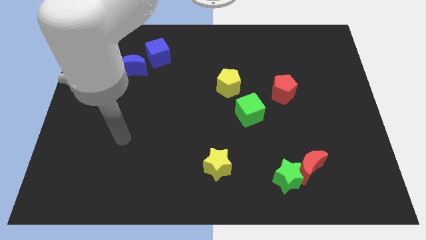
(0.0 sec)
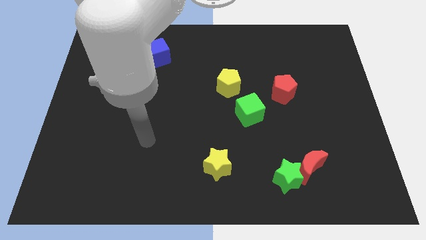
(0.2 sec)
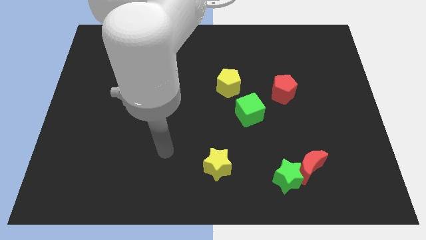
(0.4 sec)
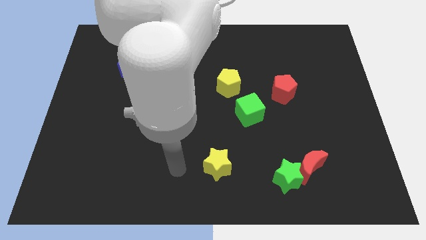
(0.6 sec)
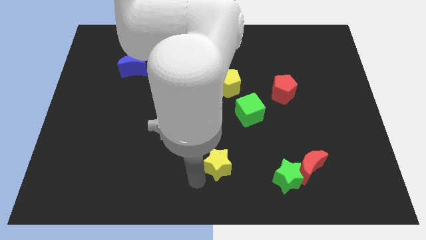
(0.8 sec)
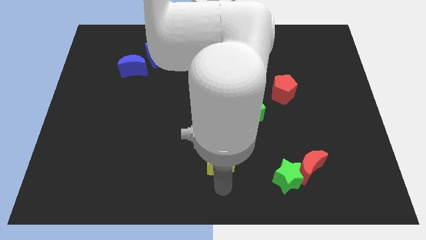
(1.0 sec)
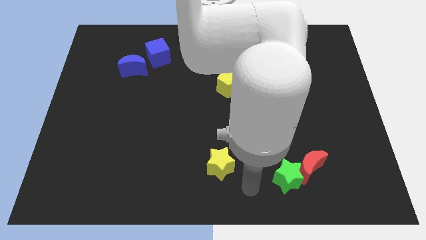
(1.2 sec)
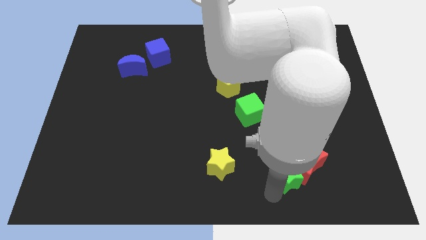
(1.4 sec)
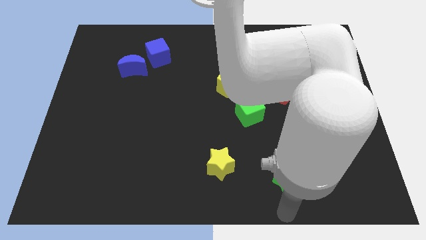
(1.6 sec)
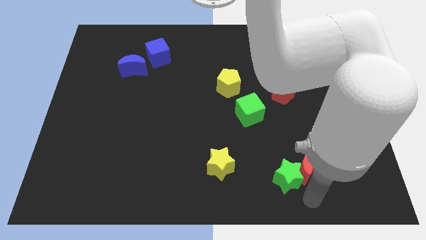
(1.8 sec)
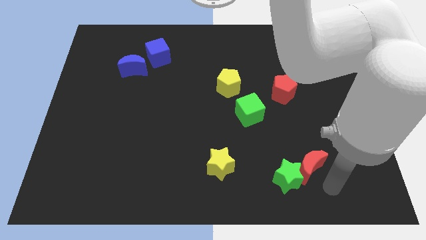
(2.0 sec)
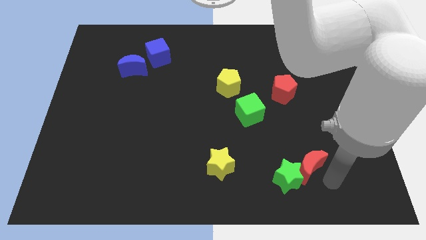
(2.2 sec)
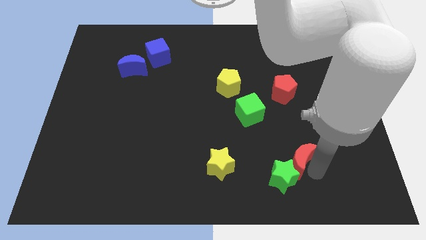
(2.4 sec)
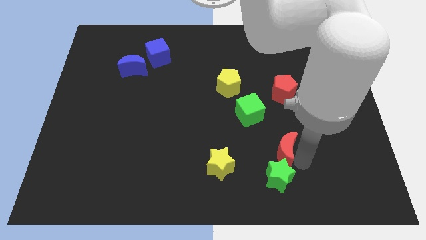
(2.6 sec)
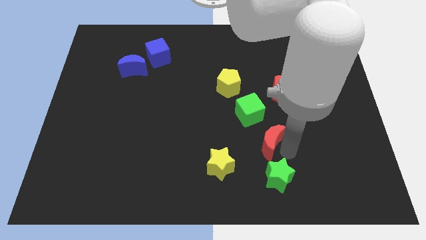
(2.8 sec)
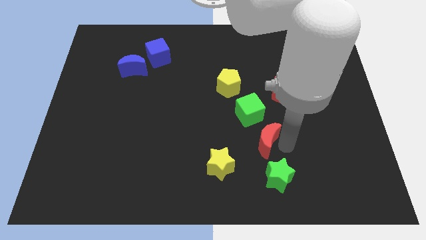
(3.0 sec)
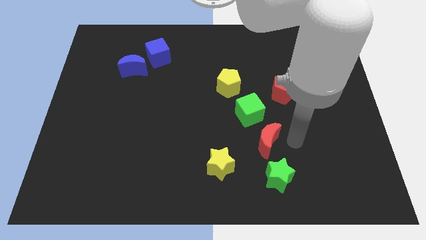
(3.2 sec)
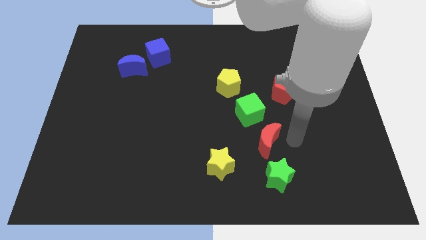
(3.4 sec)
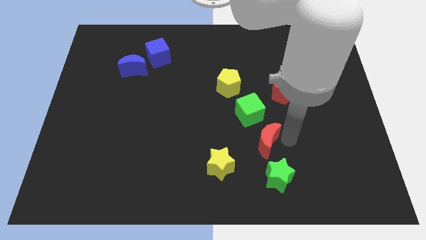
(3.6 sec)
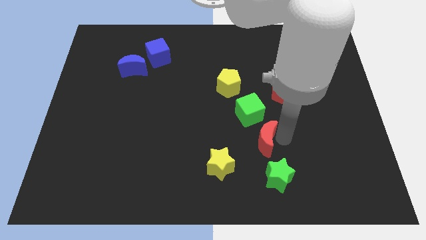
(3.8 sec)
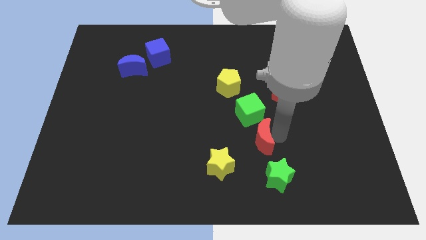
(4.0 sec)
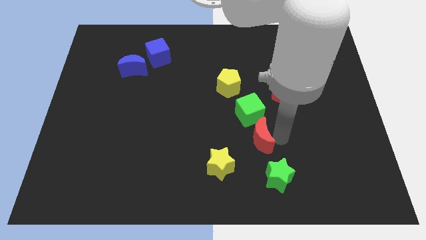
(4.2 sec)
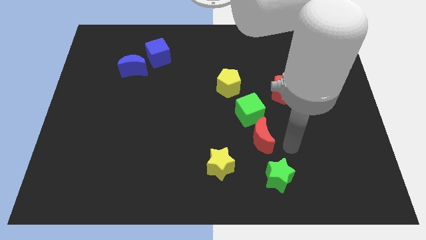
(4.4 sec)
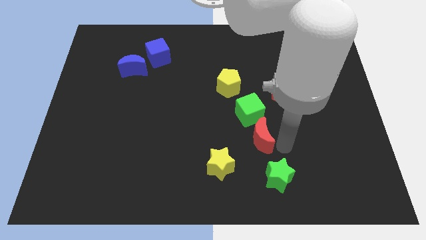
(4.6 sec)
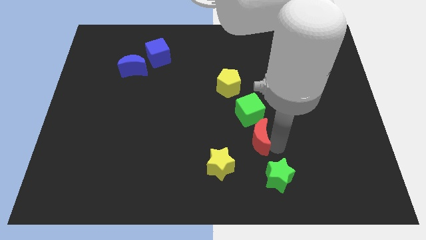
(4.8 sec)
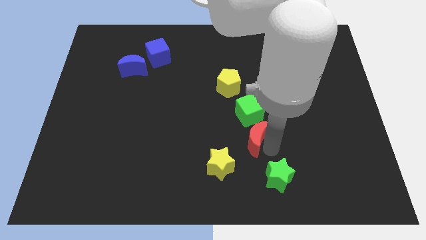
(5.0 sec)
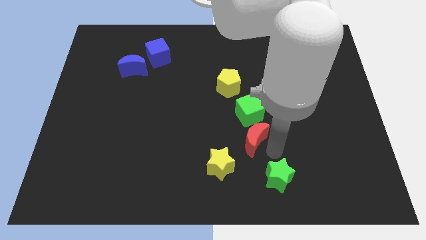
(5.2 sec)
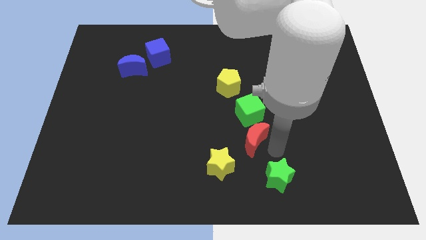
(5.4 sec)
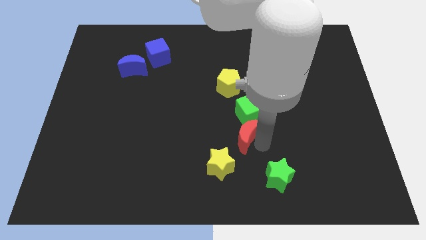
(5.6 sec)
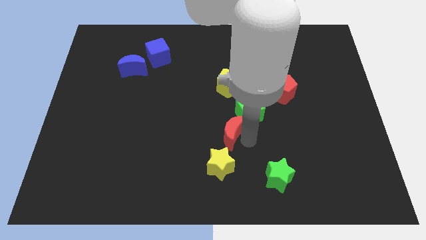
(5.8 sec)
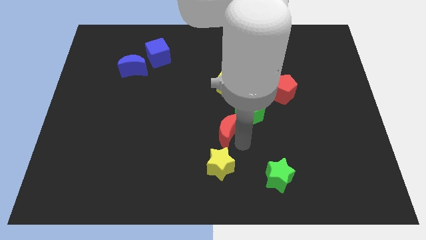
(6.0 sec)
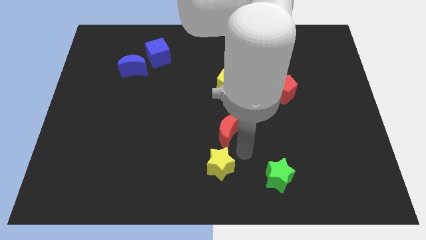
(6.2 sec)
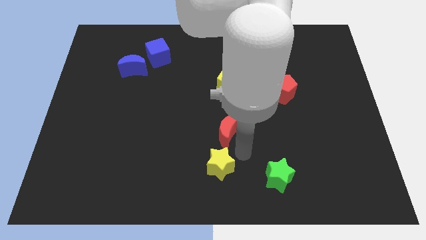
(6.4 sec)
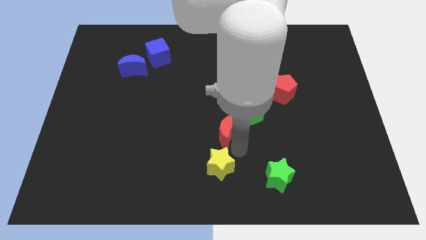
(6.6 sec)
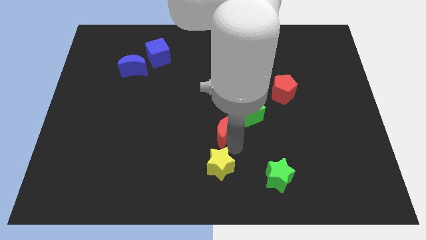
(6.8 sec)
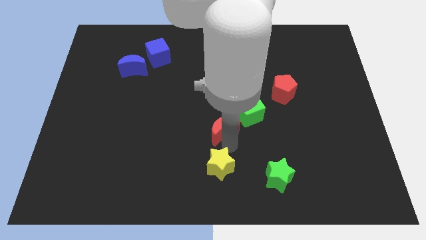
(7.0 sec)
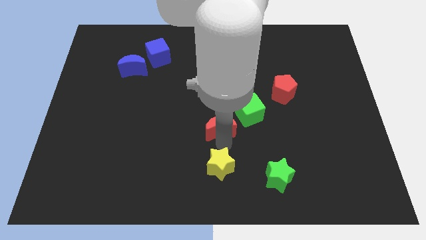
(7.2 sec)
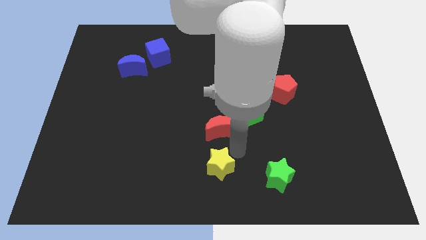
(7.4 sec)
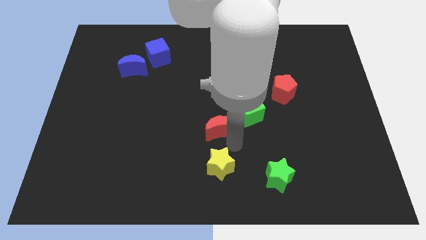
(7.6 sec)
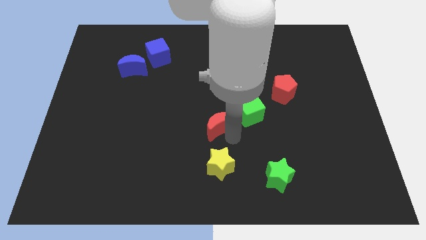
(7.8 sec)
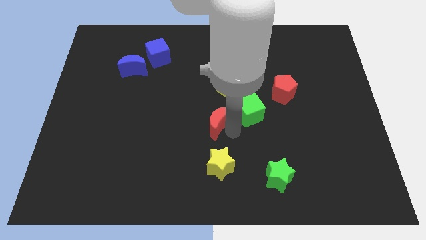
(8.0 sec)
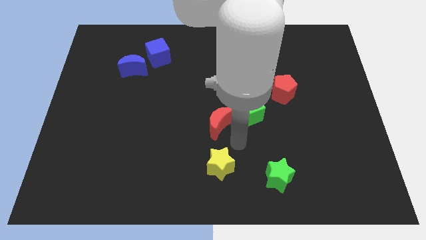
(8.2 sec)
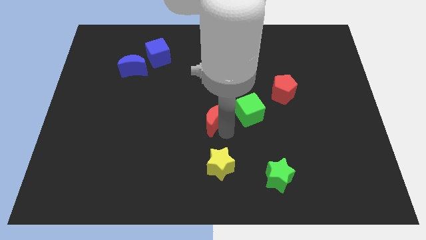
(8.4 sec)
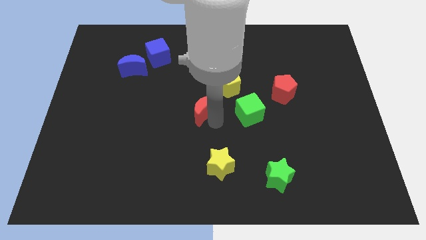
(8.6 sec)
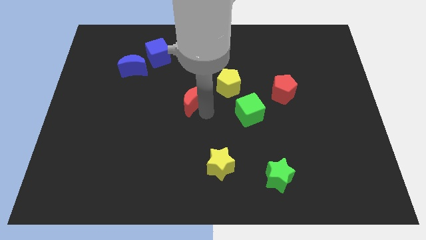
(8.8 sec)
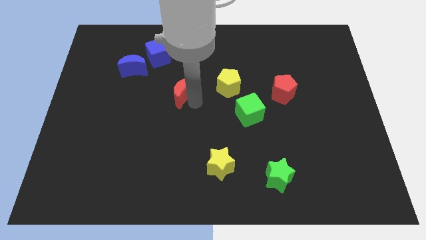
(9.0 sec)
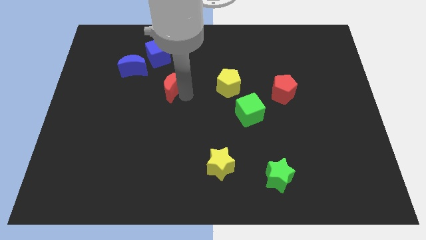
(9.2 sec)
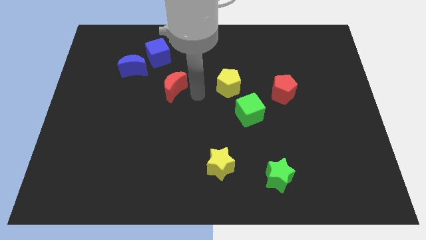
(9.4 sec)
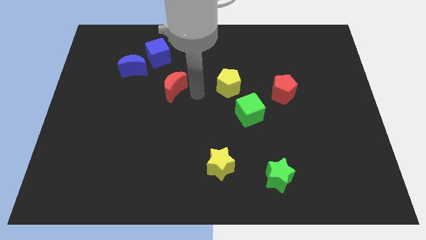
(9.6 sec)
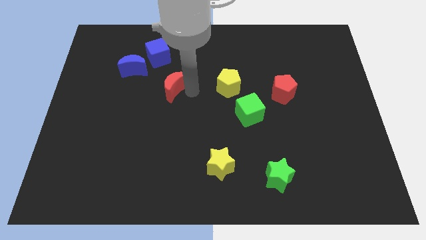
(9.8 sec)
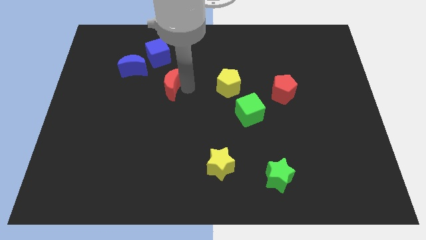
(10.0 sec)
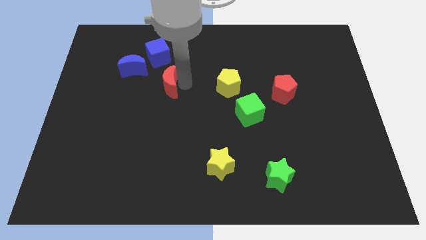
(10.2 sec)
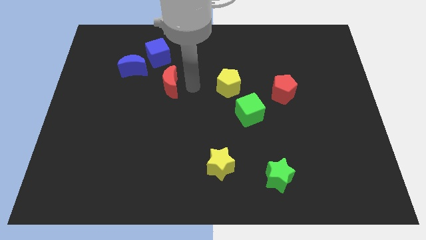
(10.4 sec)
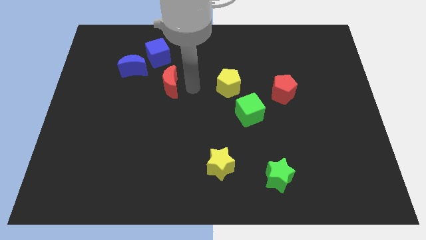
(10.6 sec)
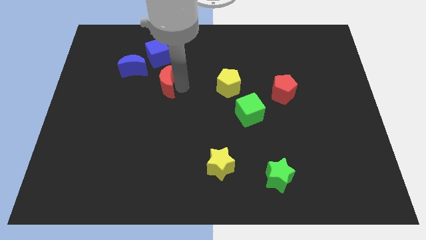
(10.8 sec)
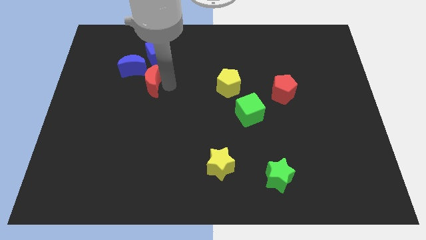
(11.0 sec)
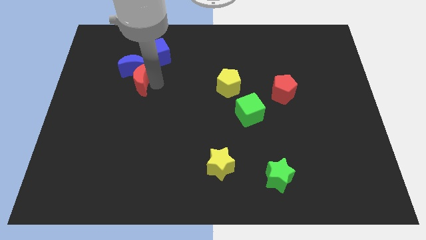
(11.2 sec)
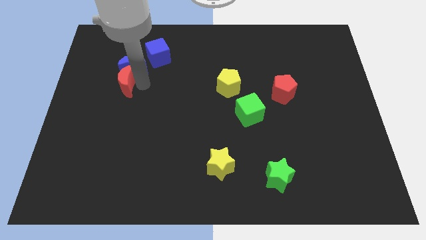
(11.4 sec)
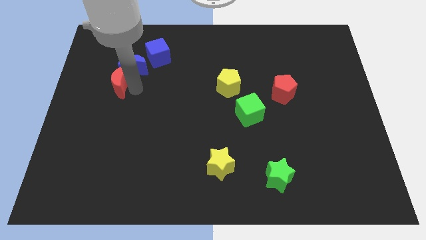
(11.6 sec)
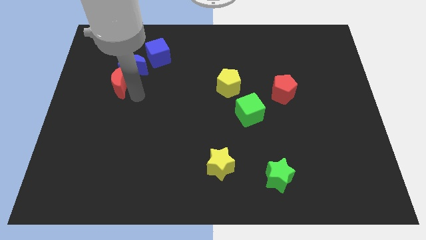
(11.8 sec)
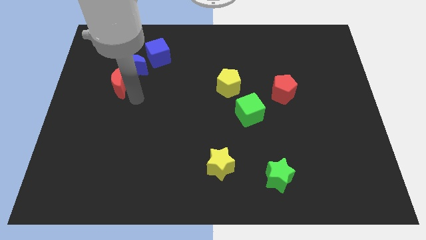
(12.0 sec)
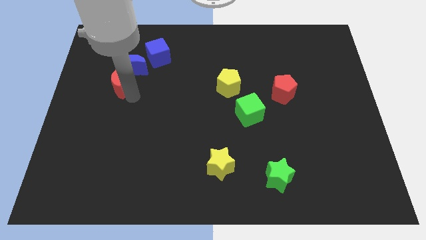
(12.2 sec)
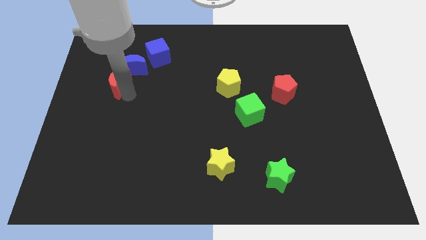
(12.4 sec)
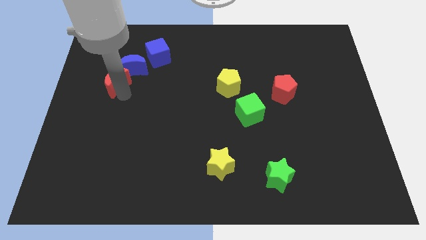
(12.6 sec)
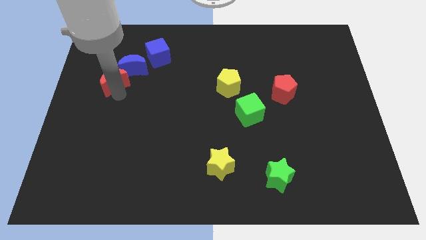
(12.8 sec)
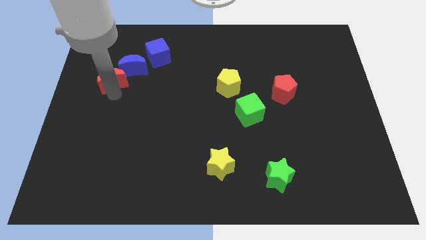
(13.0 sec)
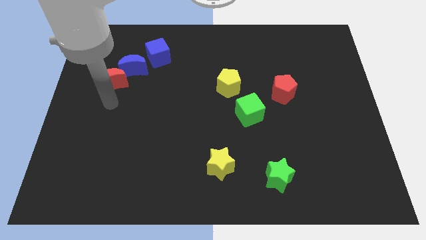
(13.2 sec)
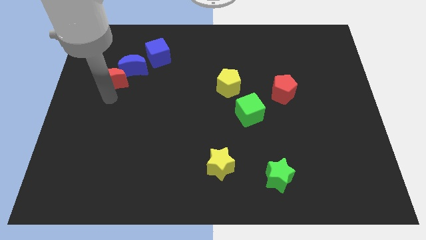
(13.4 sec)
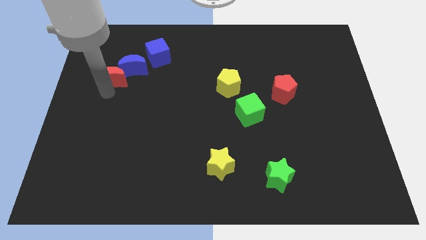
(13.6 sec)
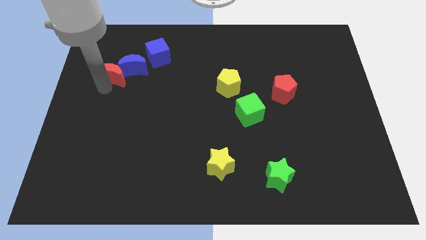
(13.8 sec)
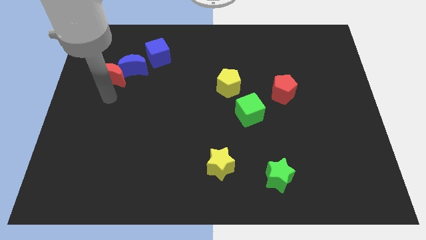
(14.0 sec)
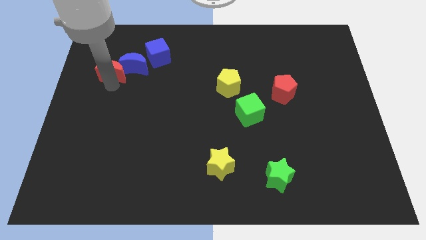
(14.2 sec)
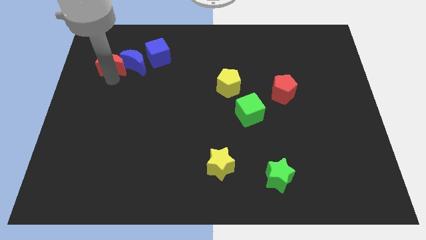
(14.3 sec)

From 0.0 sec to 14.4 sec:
slide the red moon to the top left side of the blue moon

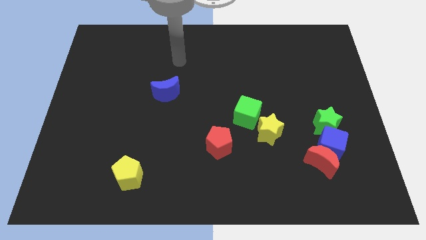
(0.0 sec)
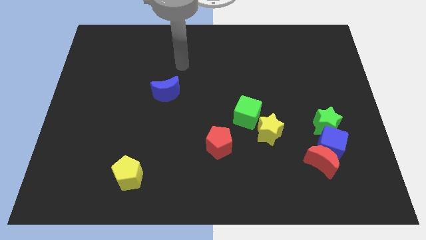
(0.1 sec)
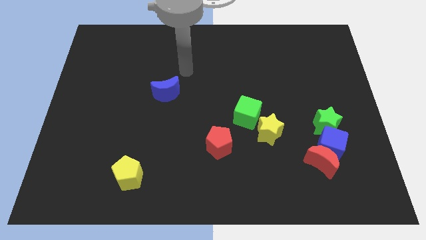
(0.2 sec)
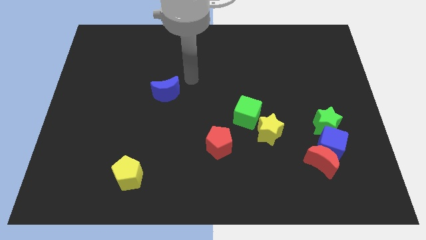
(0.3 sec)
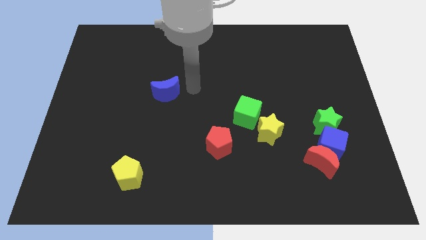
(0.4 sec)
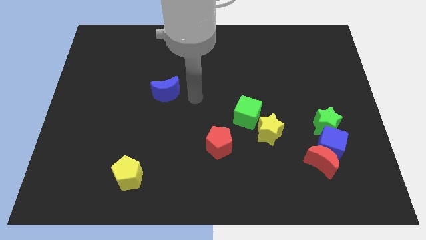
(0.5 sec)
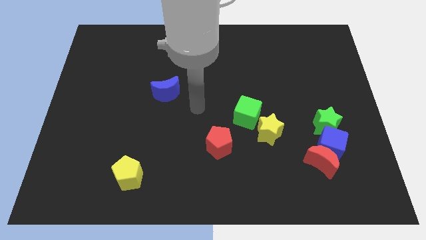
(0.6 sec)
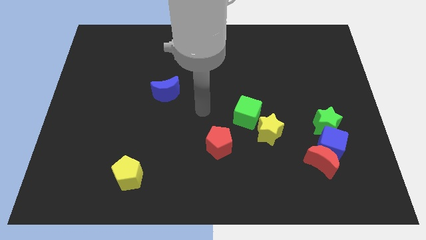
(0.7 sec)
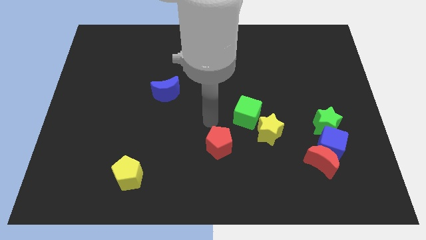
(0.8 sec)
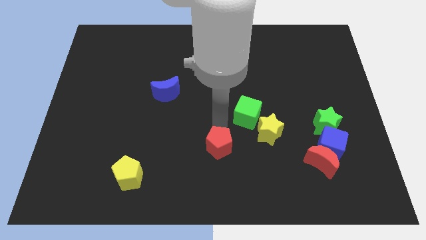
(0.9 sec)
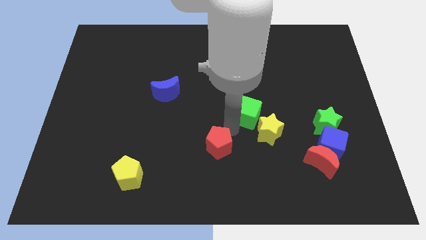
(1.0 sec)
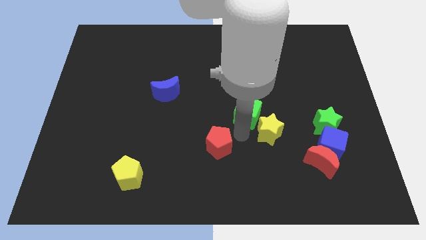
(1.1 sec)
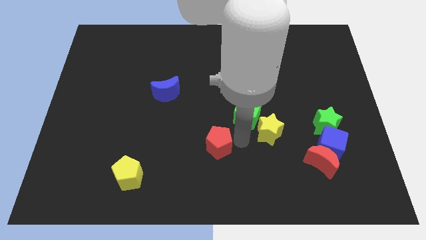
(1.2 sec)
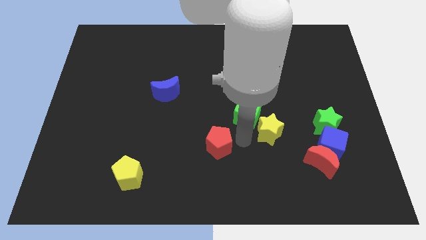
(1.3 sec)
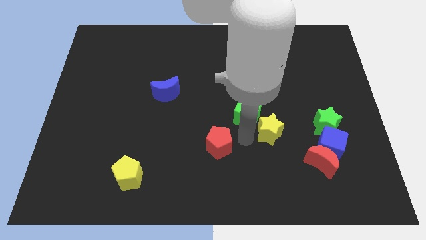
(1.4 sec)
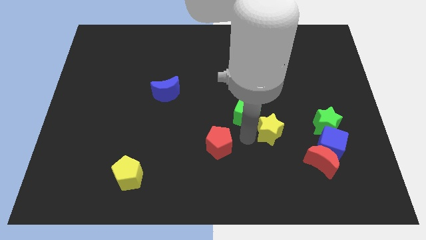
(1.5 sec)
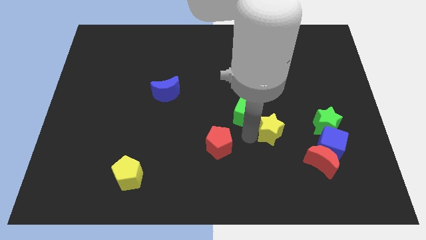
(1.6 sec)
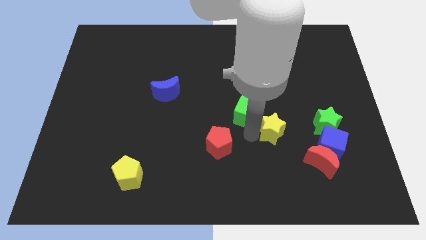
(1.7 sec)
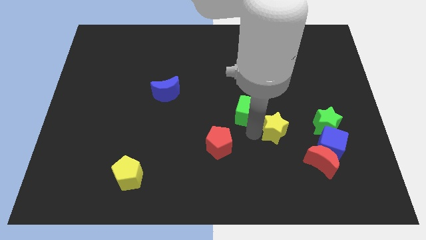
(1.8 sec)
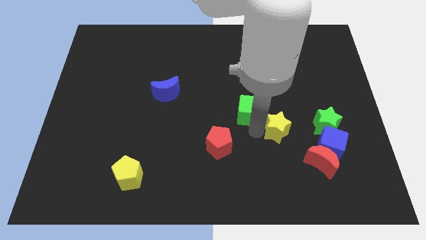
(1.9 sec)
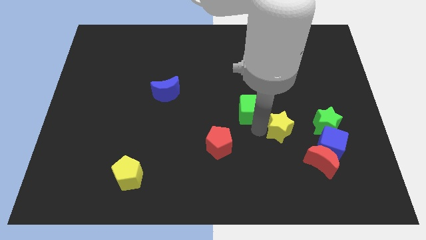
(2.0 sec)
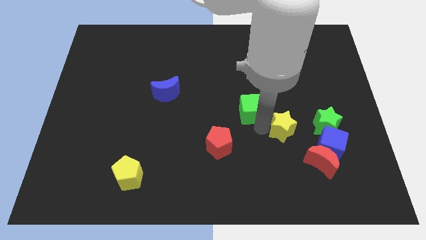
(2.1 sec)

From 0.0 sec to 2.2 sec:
slide the yellow star to the top left of the blue cube
